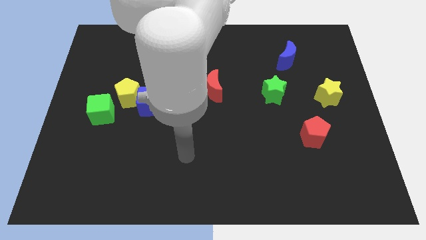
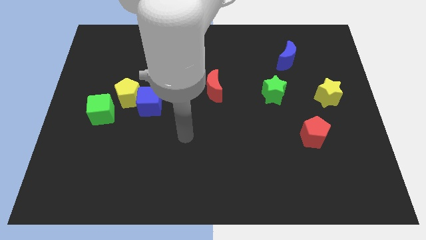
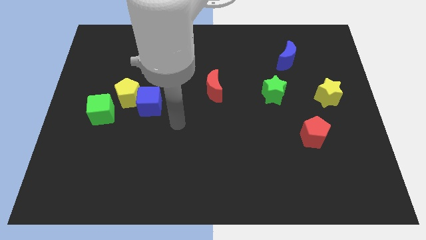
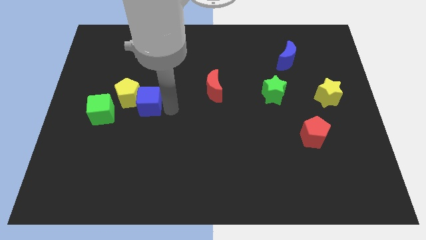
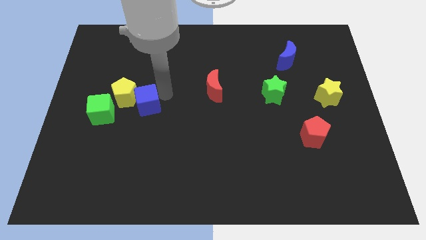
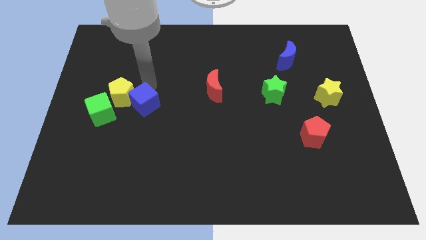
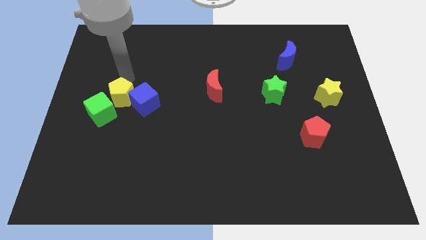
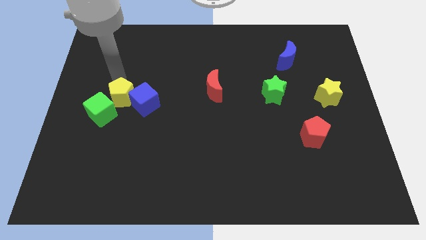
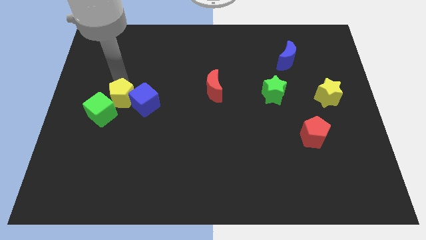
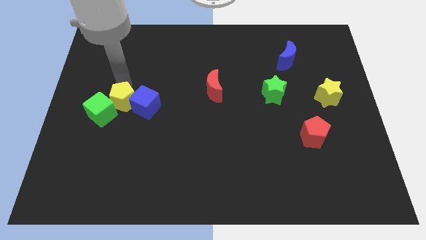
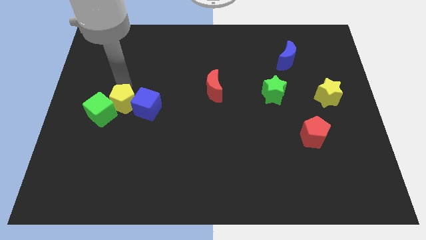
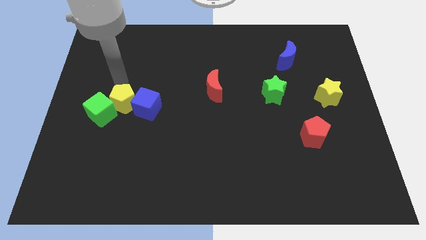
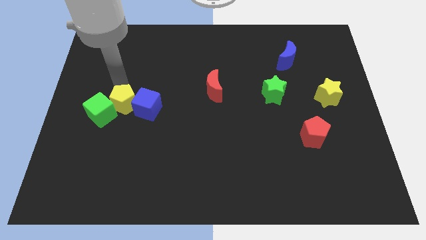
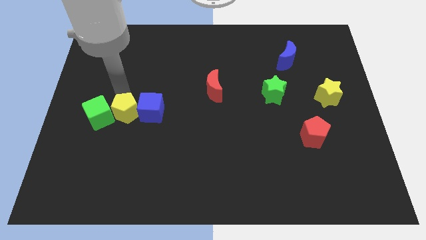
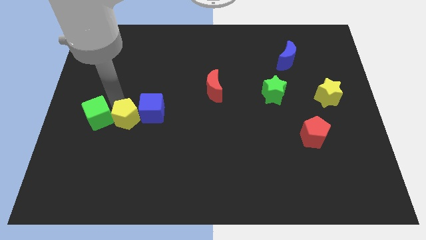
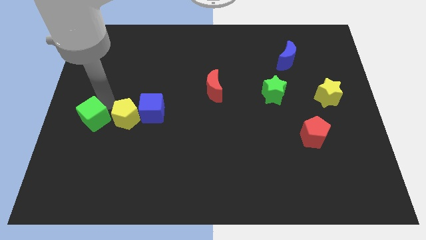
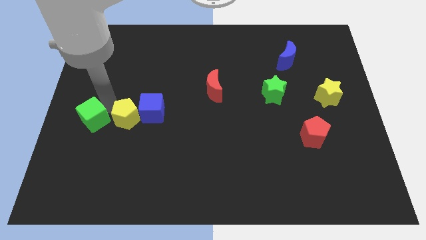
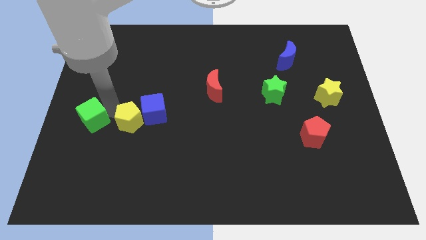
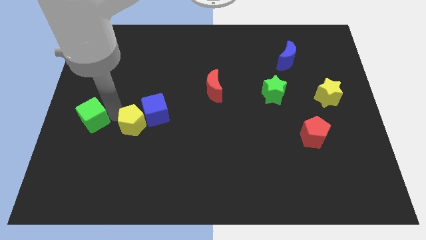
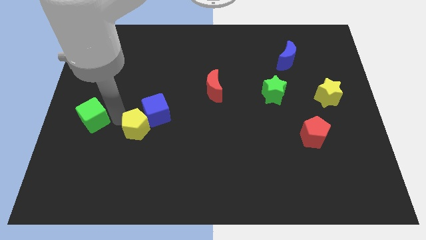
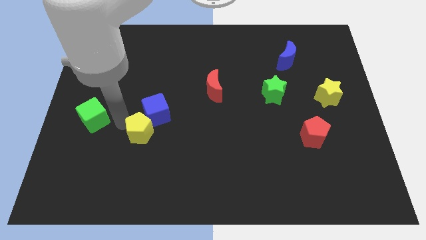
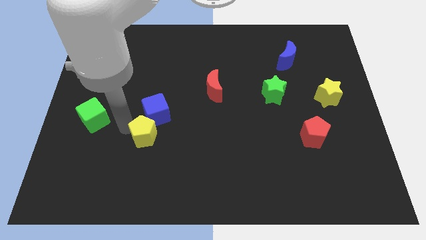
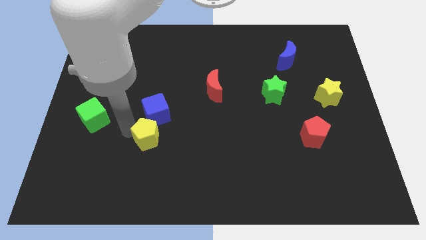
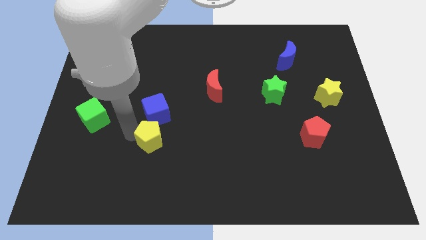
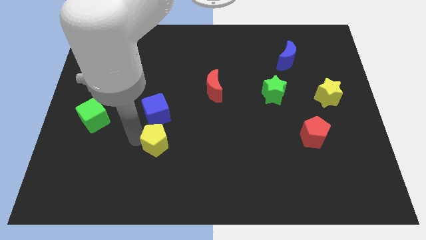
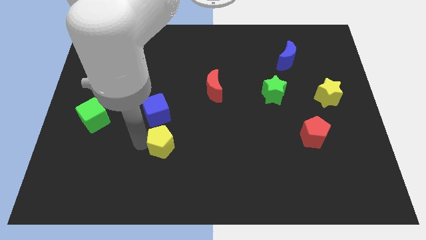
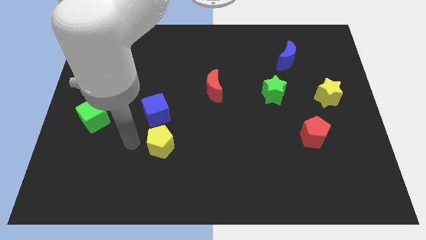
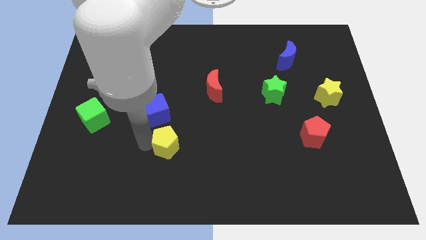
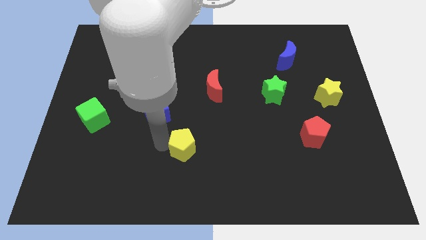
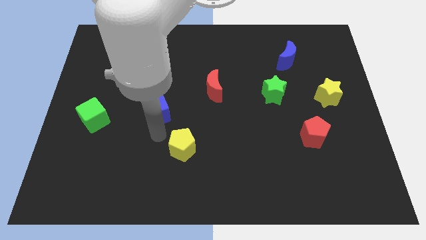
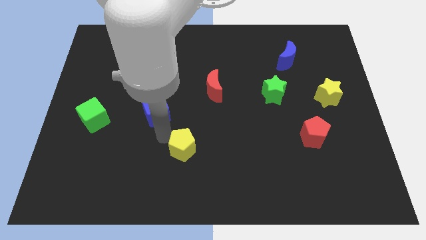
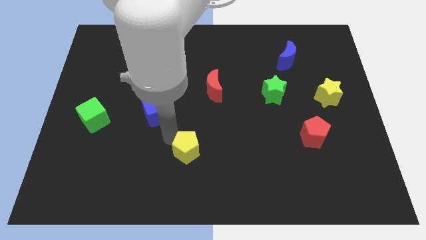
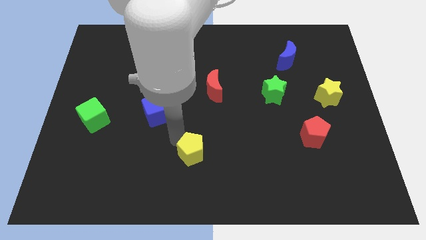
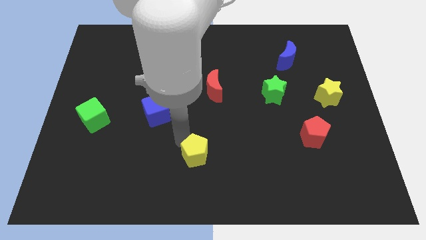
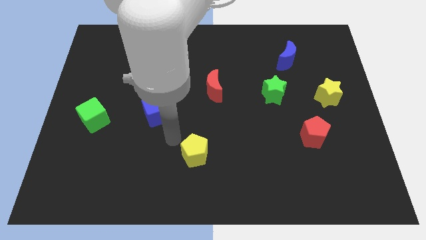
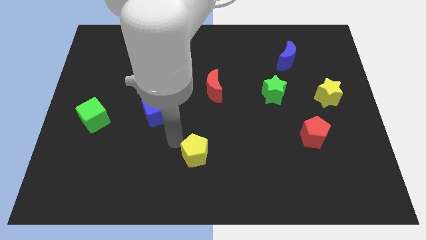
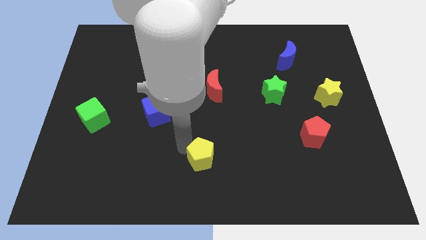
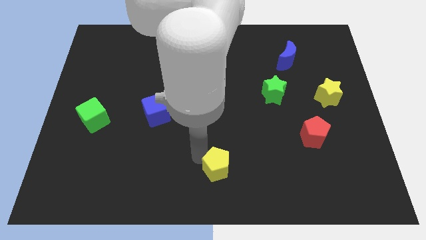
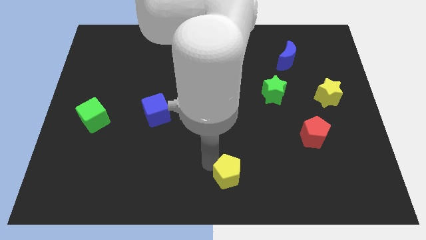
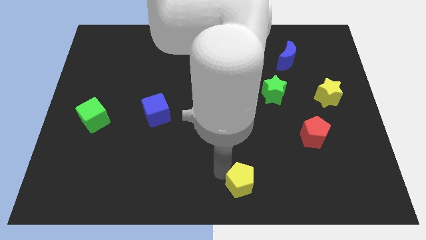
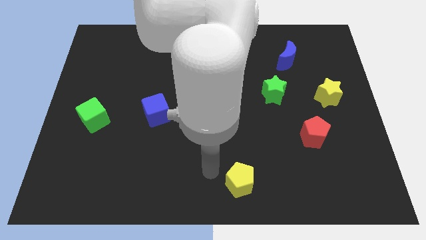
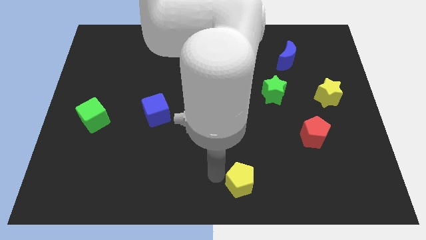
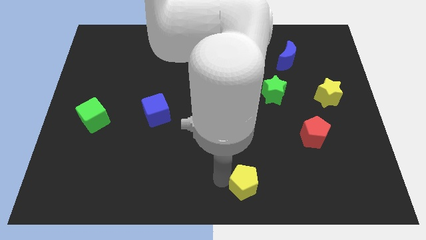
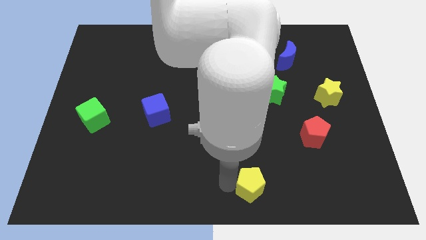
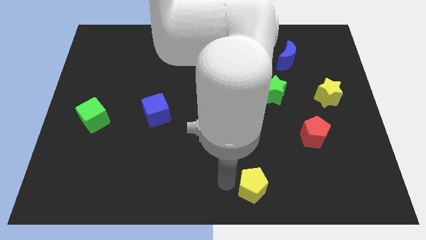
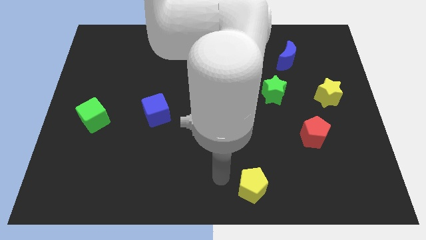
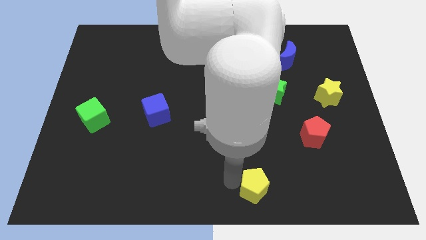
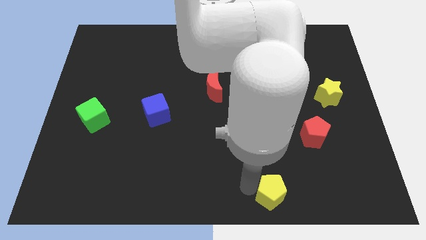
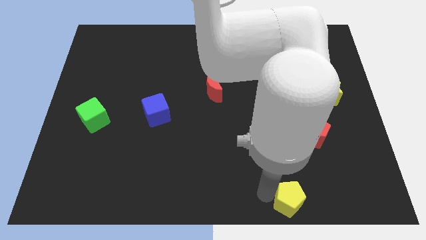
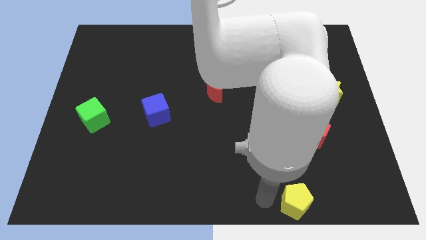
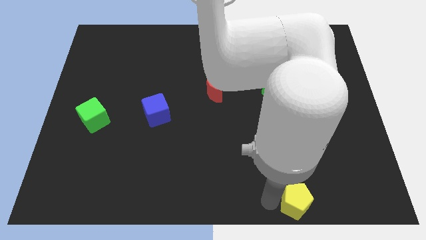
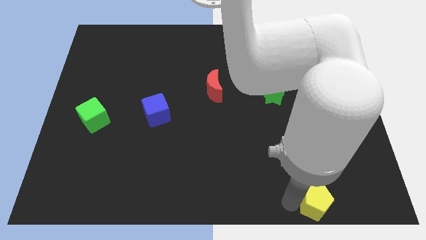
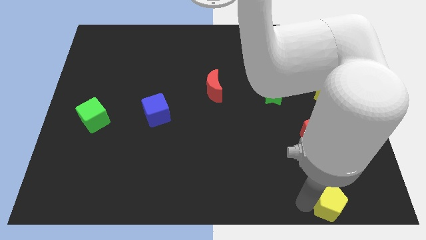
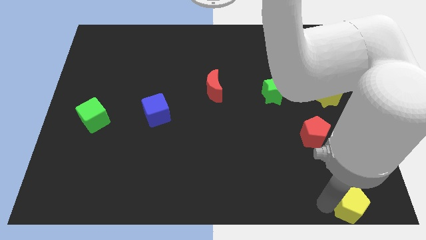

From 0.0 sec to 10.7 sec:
move the yellow pentagon to the bottom right
